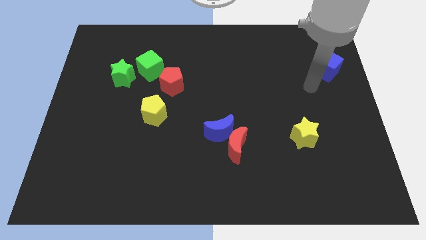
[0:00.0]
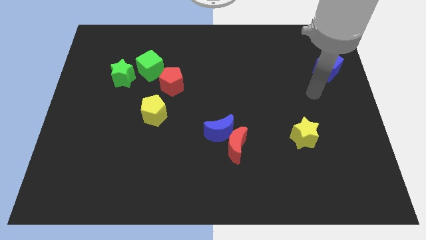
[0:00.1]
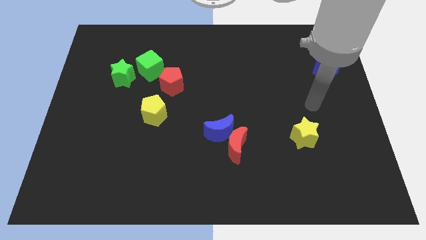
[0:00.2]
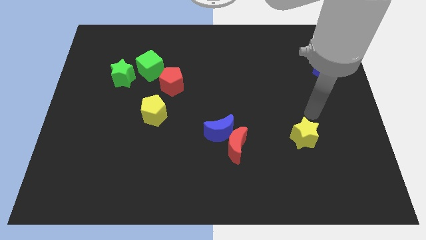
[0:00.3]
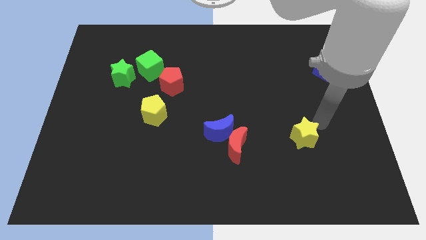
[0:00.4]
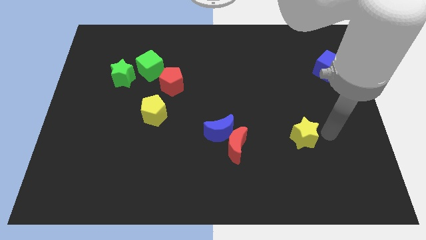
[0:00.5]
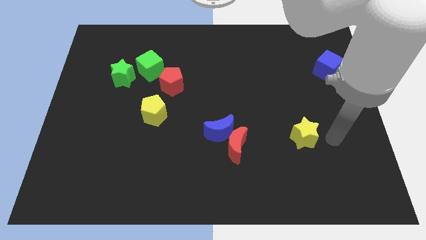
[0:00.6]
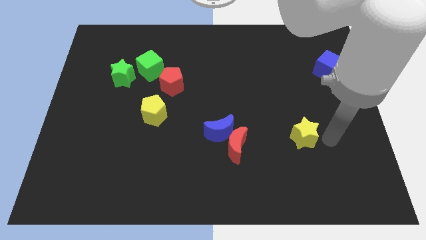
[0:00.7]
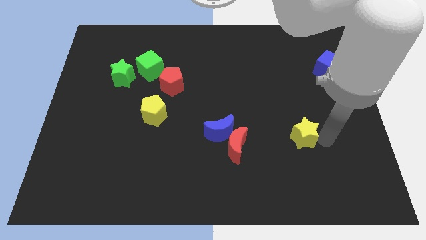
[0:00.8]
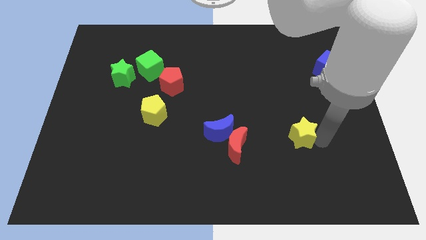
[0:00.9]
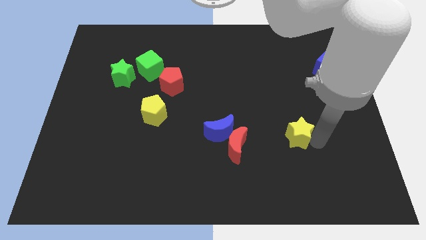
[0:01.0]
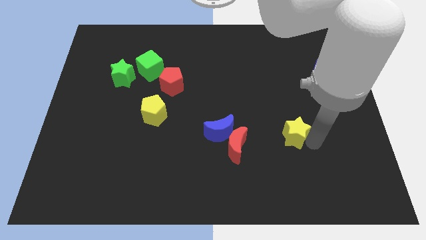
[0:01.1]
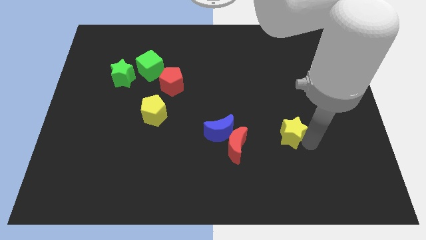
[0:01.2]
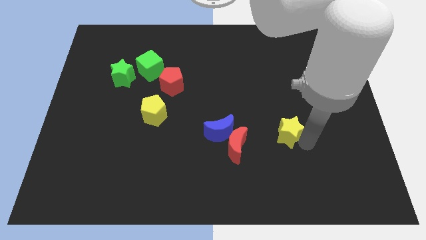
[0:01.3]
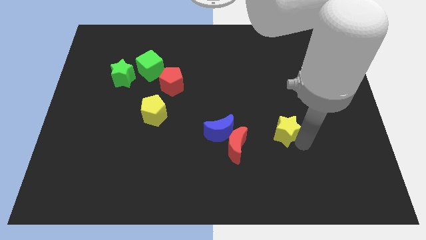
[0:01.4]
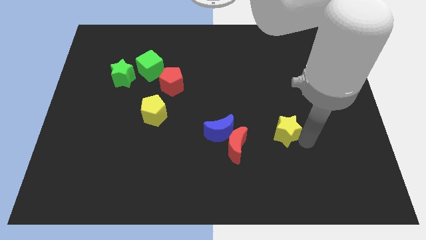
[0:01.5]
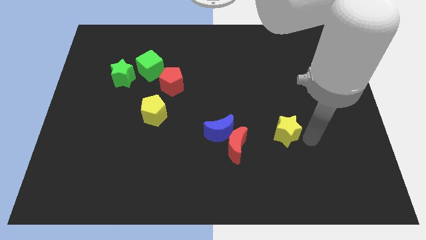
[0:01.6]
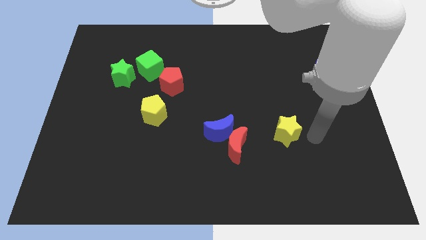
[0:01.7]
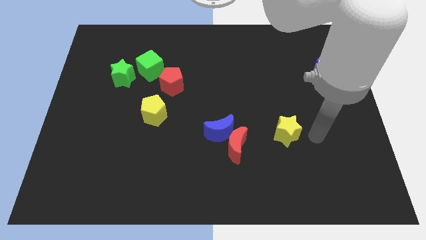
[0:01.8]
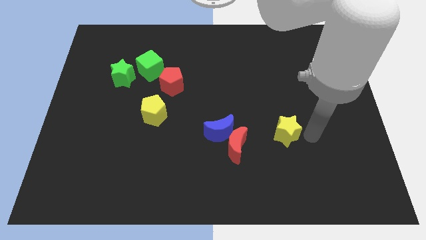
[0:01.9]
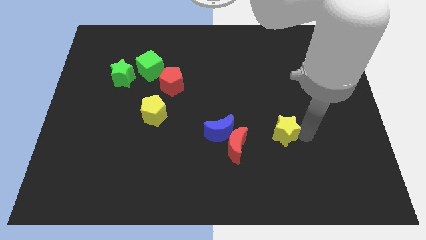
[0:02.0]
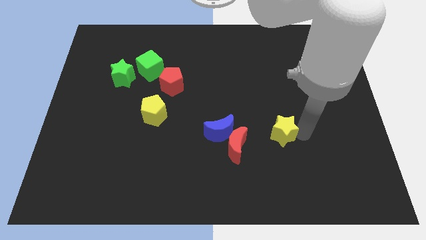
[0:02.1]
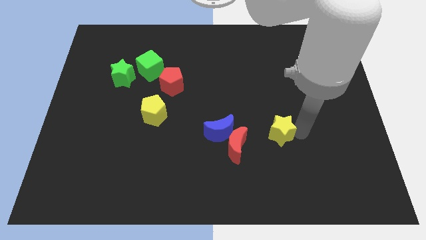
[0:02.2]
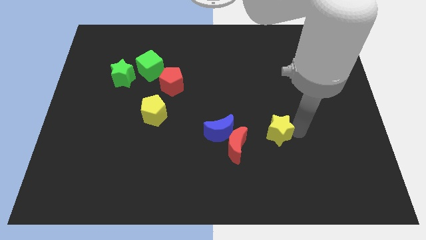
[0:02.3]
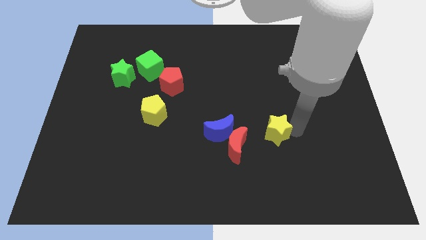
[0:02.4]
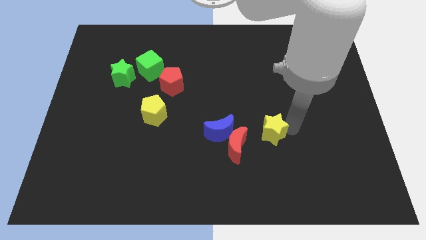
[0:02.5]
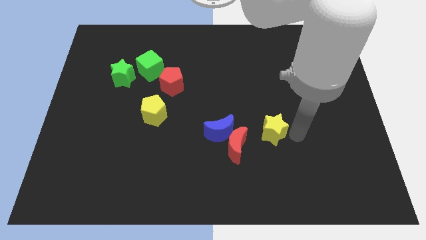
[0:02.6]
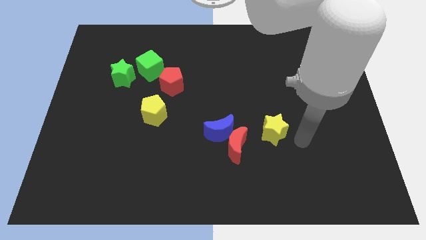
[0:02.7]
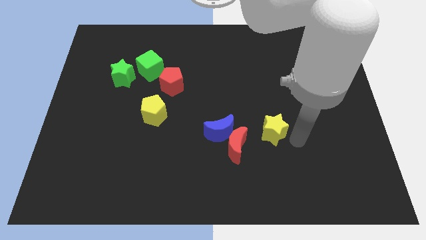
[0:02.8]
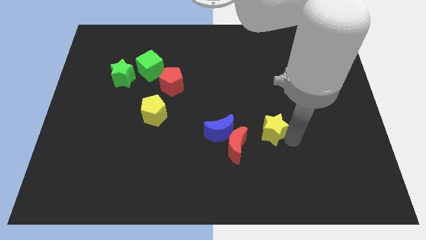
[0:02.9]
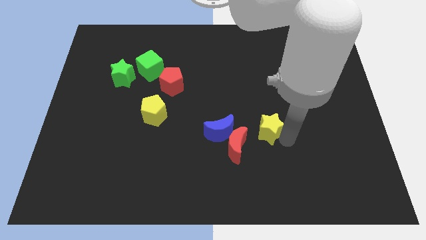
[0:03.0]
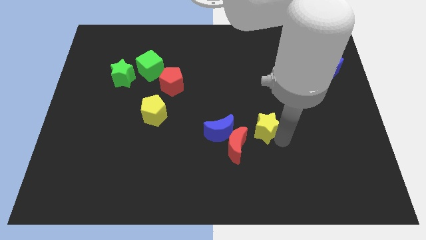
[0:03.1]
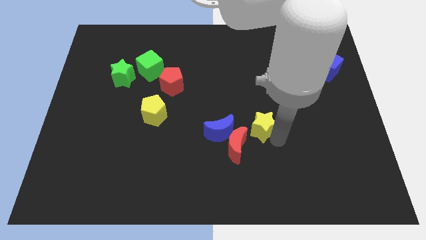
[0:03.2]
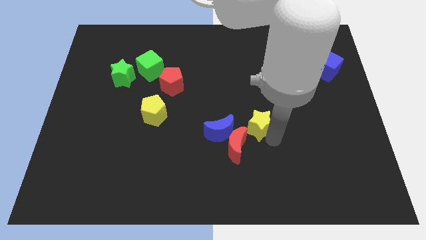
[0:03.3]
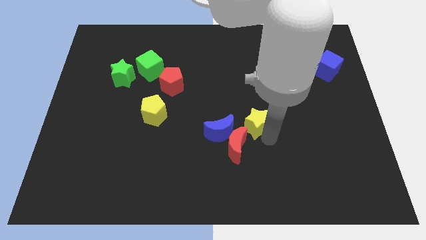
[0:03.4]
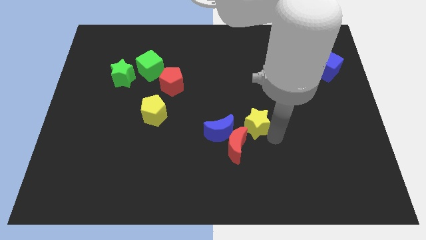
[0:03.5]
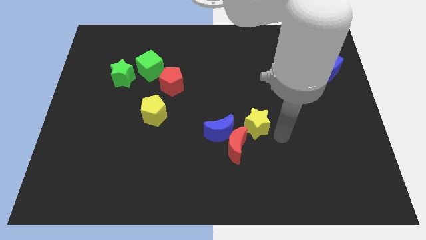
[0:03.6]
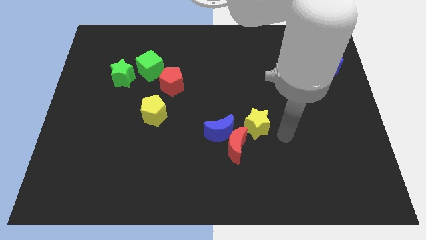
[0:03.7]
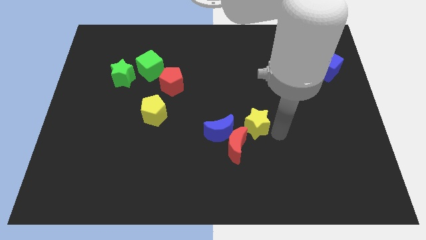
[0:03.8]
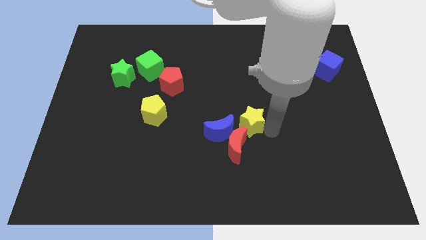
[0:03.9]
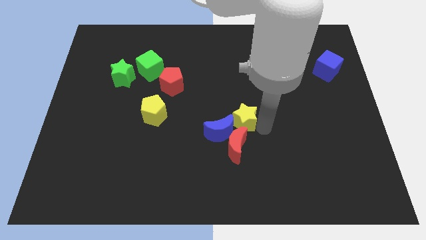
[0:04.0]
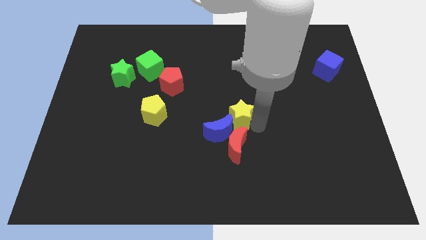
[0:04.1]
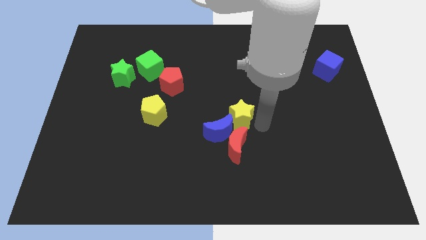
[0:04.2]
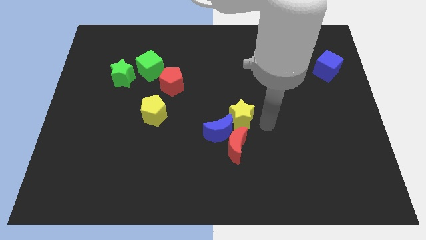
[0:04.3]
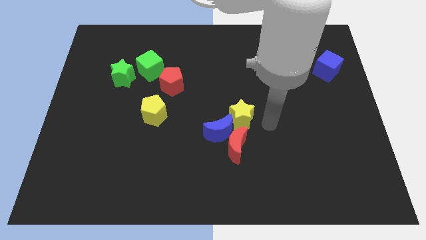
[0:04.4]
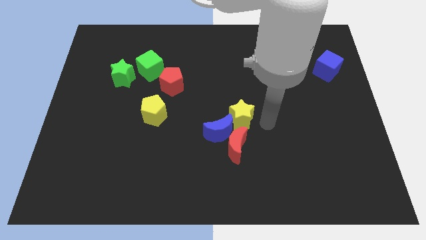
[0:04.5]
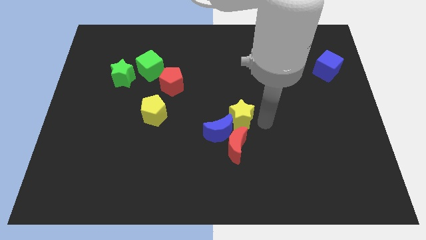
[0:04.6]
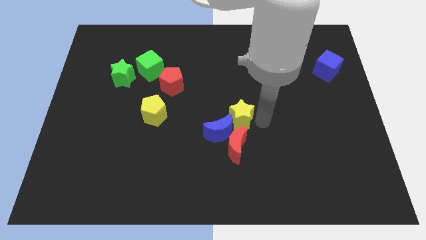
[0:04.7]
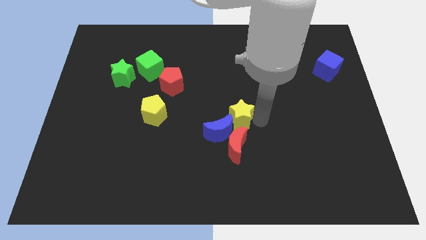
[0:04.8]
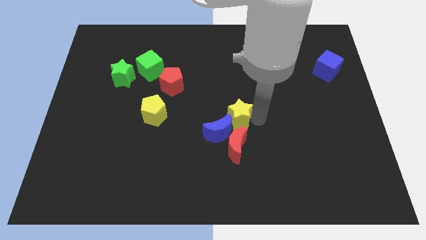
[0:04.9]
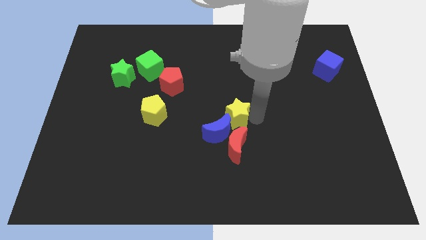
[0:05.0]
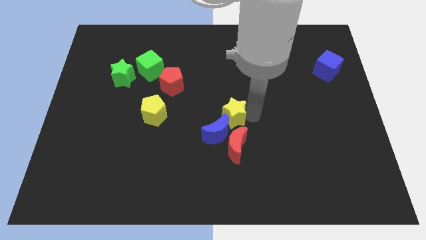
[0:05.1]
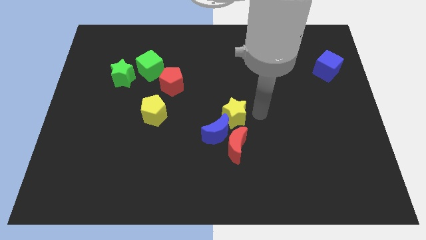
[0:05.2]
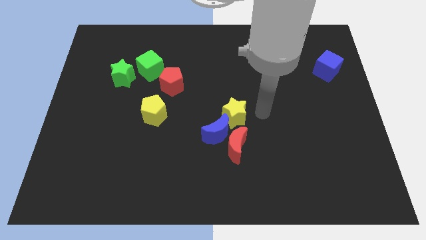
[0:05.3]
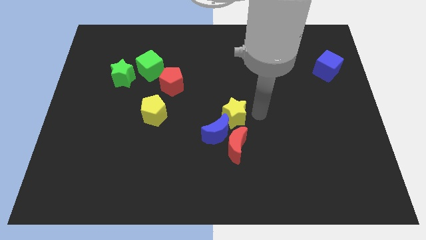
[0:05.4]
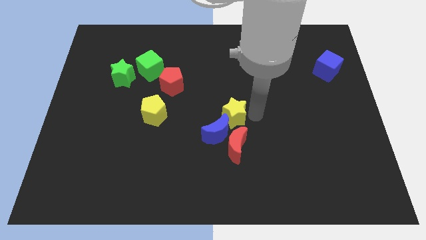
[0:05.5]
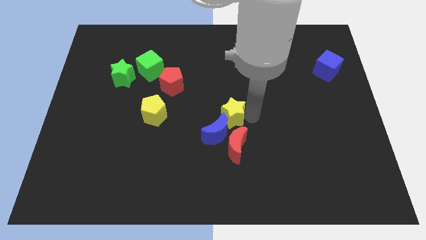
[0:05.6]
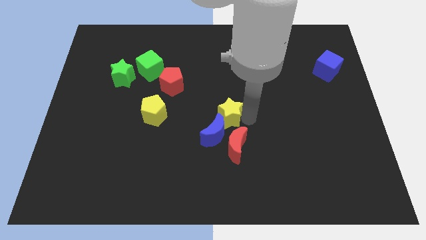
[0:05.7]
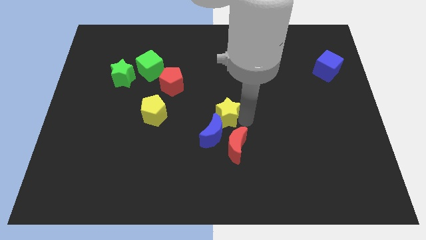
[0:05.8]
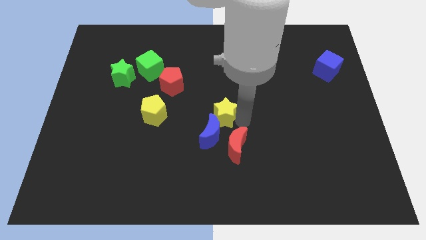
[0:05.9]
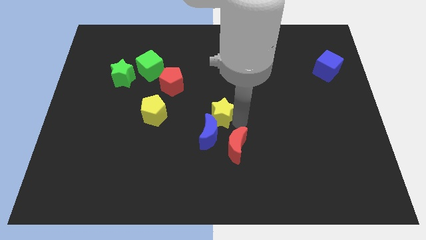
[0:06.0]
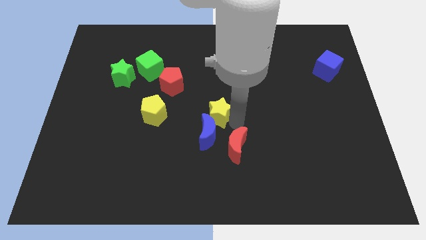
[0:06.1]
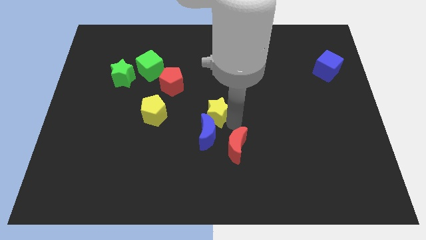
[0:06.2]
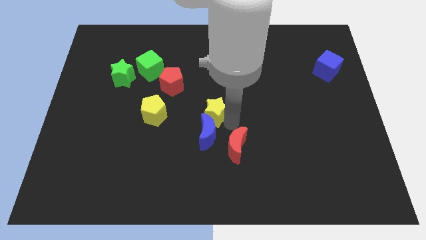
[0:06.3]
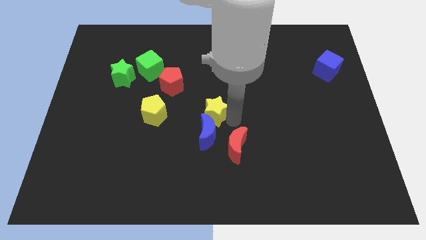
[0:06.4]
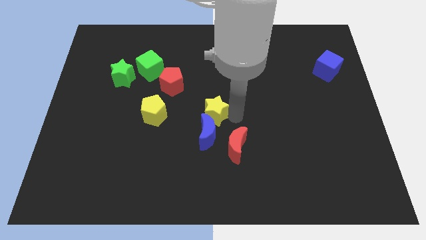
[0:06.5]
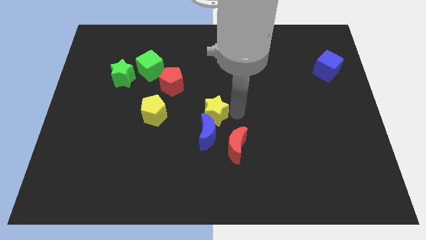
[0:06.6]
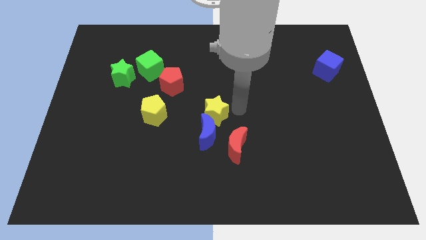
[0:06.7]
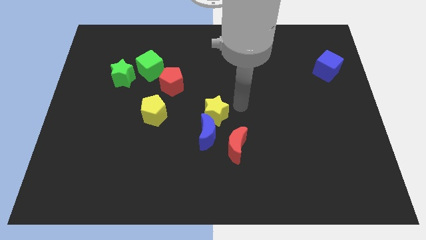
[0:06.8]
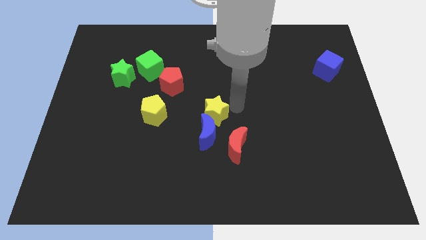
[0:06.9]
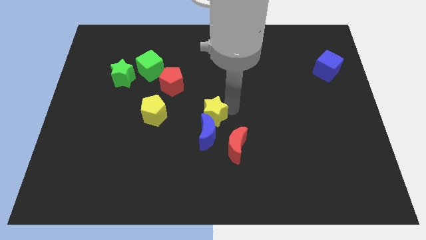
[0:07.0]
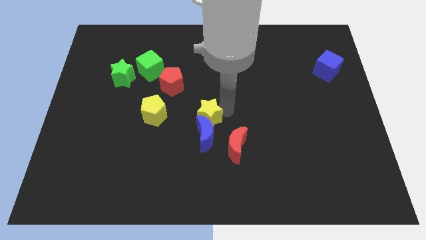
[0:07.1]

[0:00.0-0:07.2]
move the yellow star left

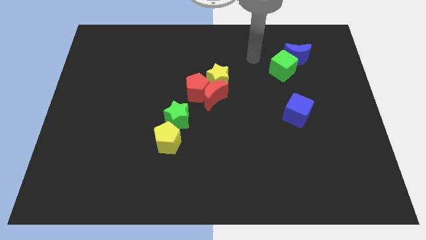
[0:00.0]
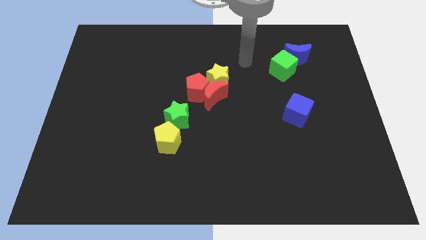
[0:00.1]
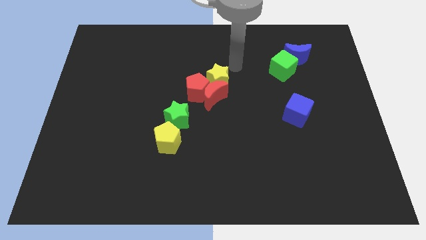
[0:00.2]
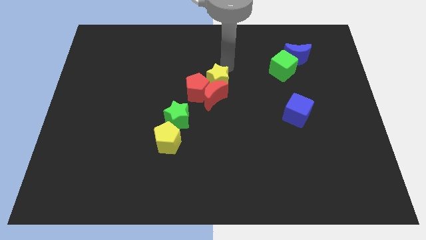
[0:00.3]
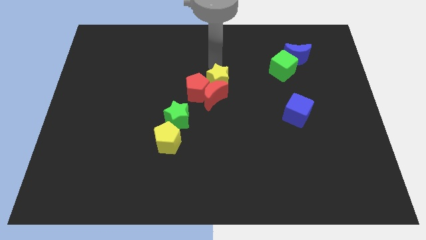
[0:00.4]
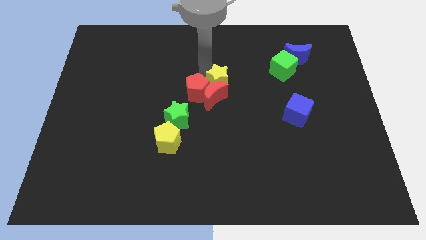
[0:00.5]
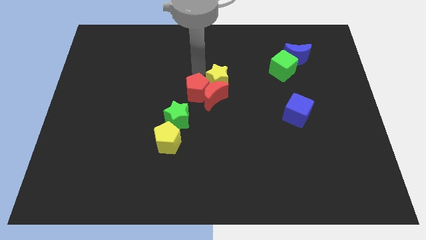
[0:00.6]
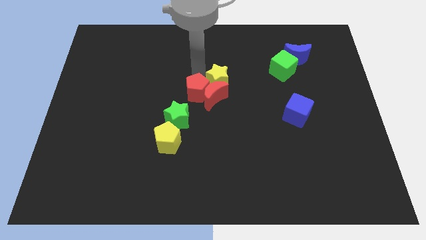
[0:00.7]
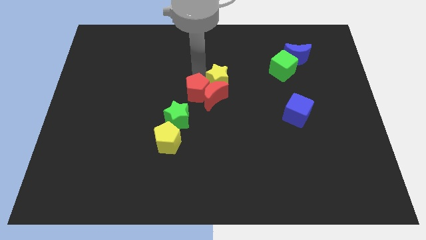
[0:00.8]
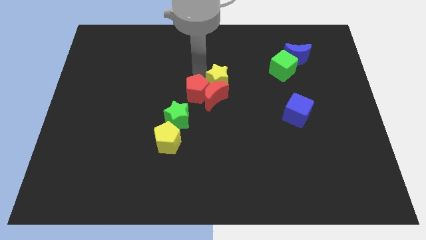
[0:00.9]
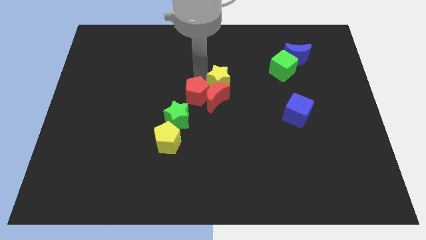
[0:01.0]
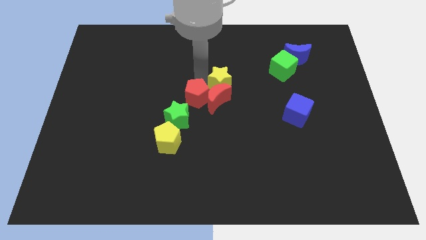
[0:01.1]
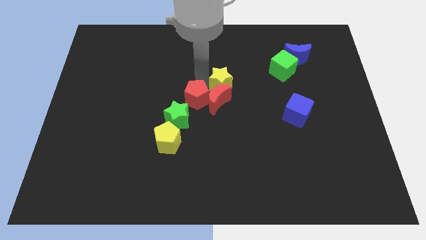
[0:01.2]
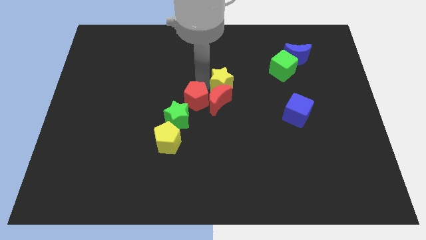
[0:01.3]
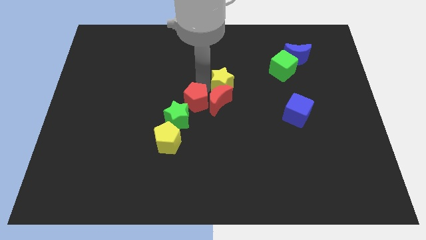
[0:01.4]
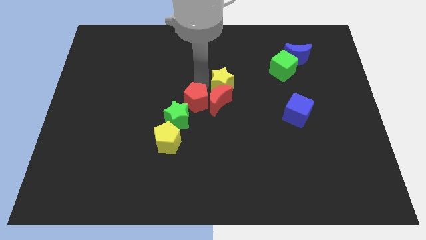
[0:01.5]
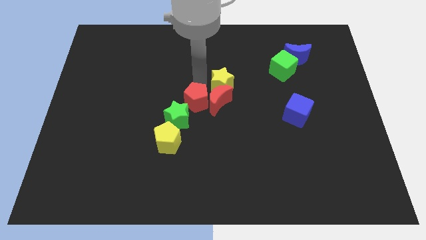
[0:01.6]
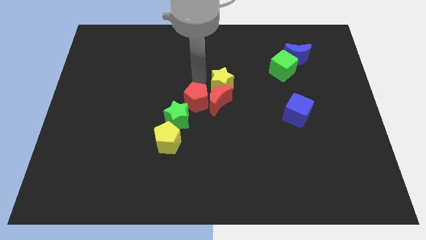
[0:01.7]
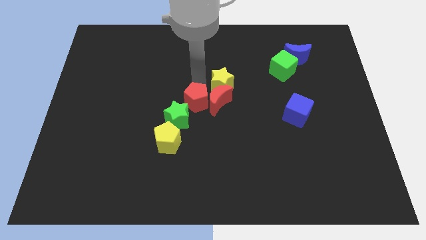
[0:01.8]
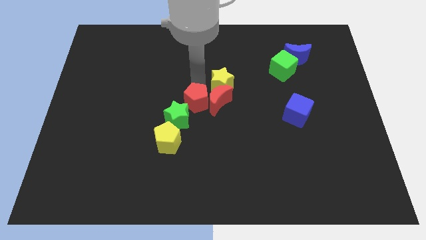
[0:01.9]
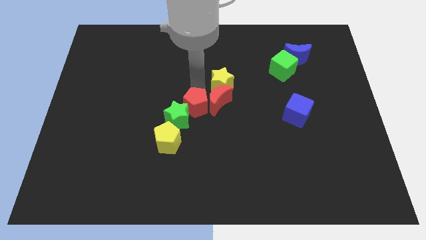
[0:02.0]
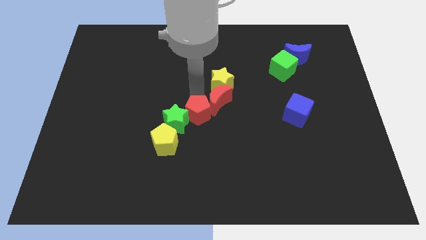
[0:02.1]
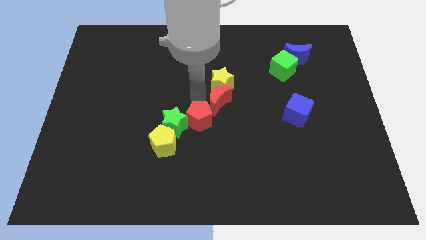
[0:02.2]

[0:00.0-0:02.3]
move the red pentagon a little bit down
